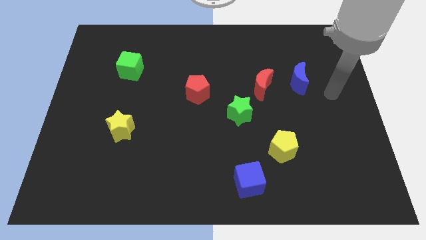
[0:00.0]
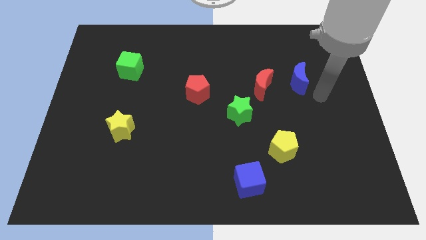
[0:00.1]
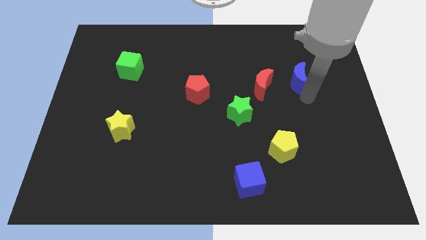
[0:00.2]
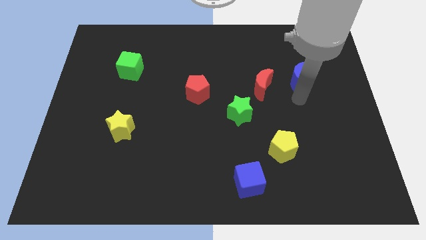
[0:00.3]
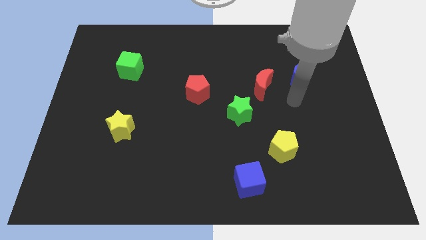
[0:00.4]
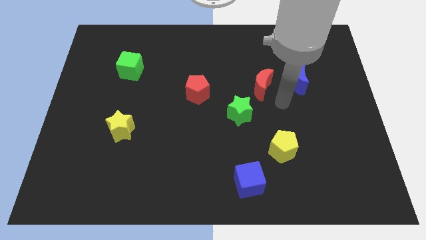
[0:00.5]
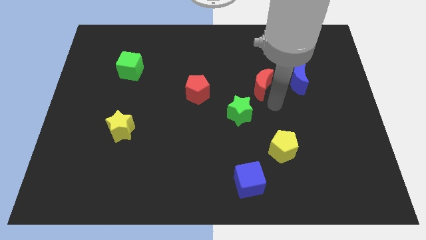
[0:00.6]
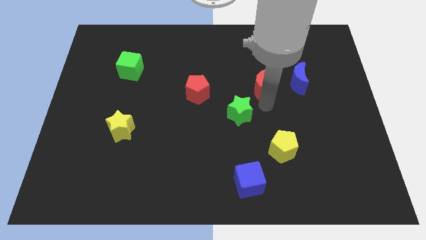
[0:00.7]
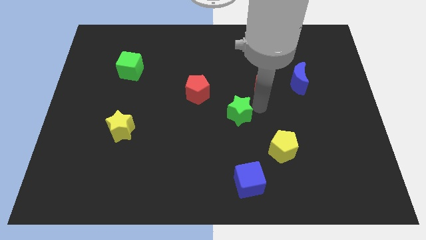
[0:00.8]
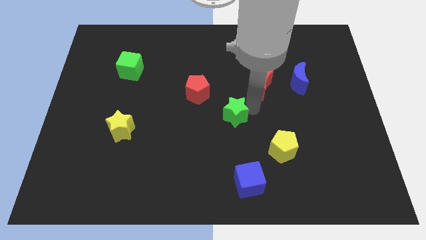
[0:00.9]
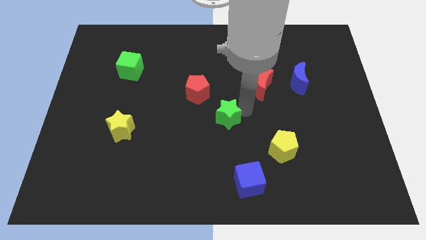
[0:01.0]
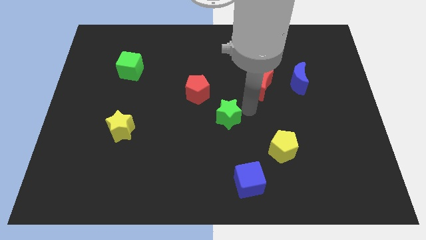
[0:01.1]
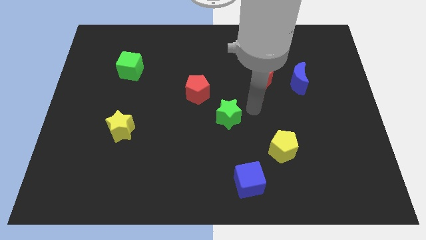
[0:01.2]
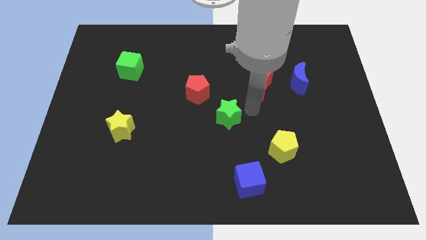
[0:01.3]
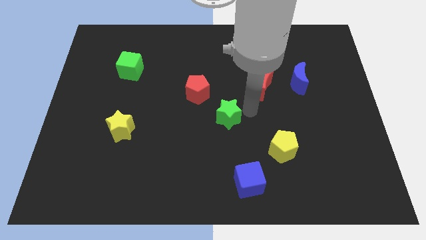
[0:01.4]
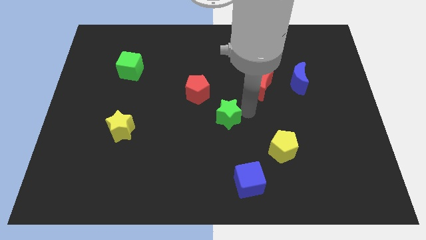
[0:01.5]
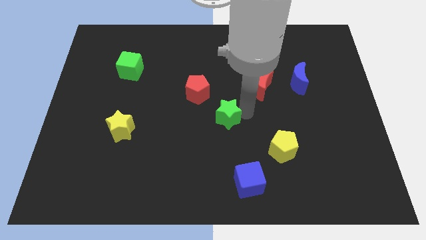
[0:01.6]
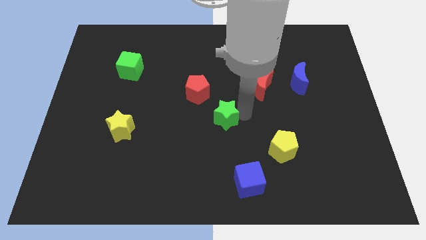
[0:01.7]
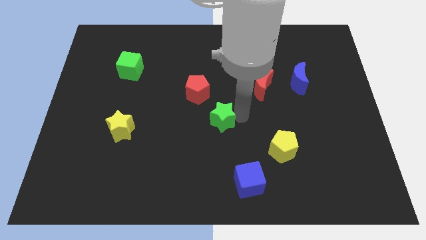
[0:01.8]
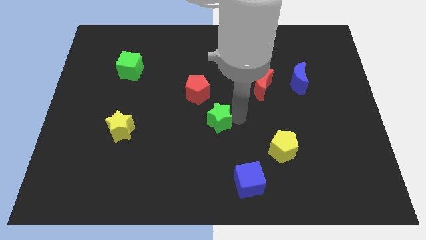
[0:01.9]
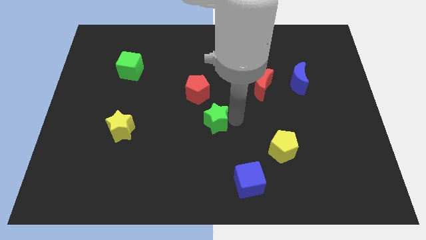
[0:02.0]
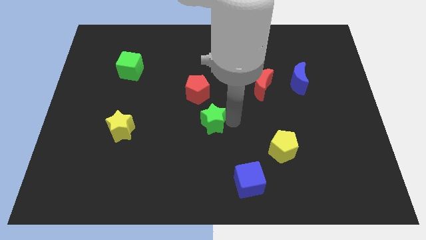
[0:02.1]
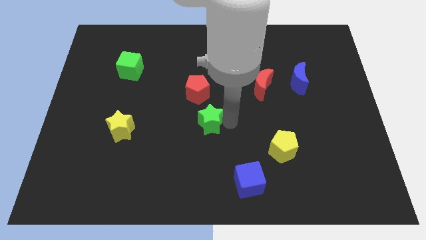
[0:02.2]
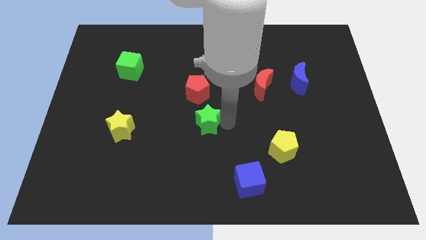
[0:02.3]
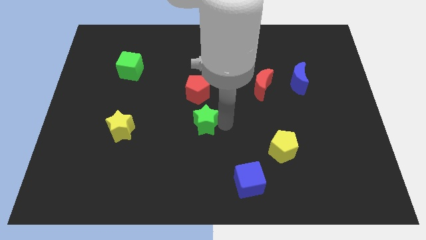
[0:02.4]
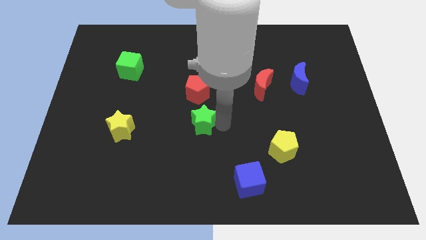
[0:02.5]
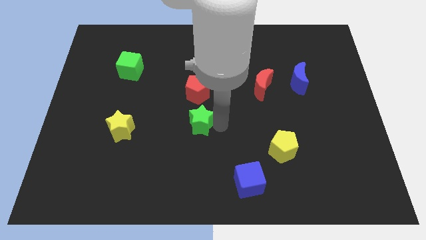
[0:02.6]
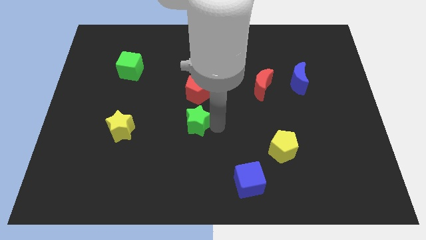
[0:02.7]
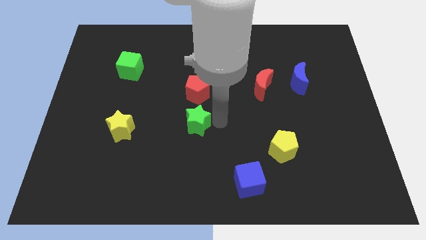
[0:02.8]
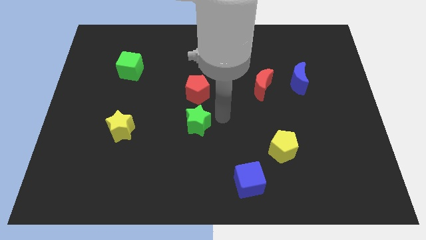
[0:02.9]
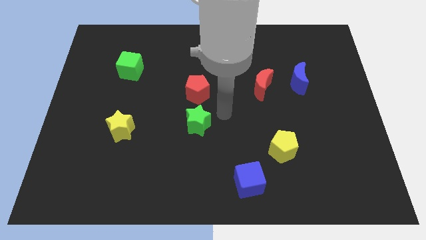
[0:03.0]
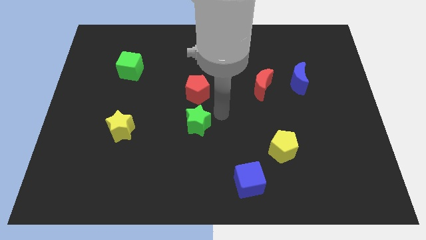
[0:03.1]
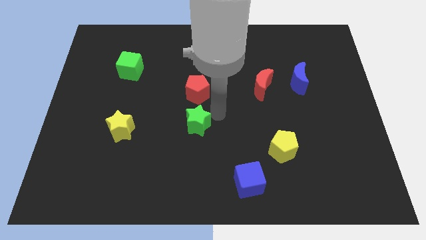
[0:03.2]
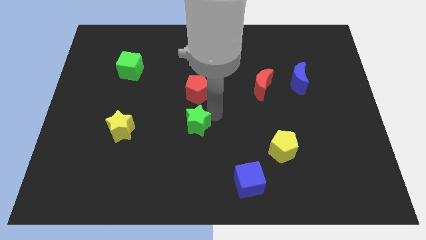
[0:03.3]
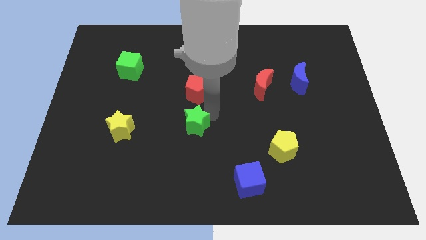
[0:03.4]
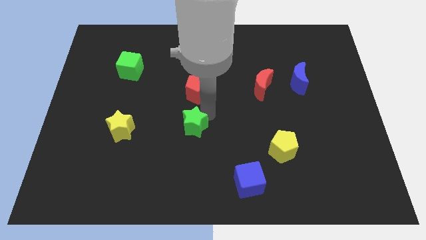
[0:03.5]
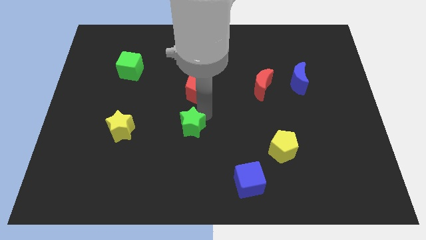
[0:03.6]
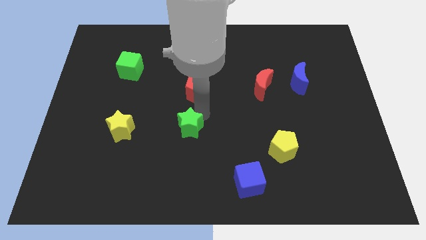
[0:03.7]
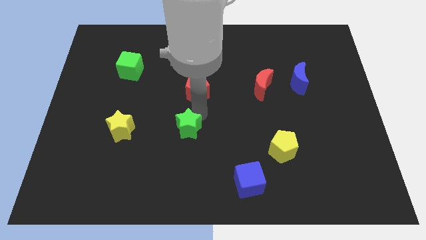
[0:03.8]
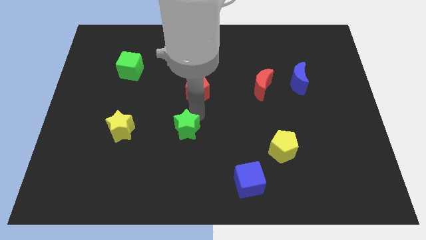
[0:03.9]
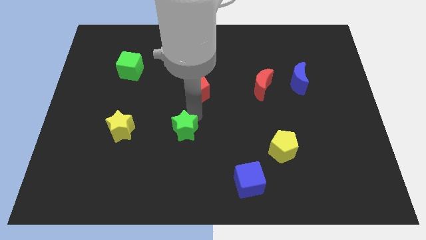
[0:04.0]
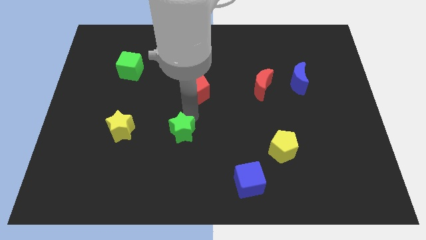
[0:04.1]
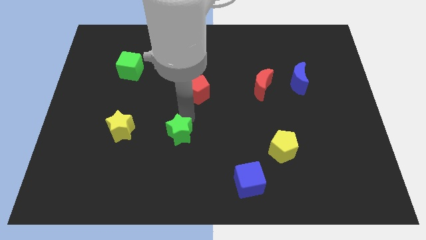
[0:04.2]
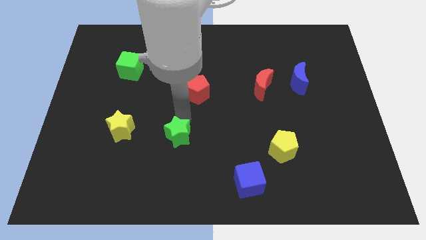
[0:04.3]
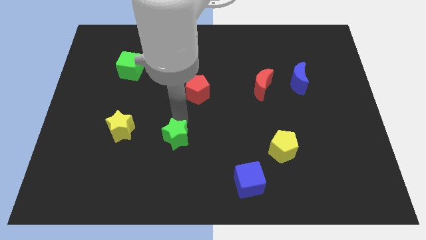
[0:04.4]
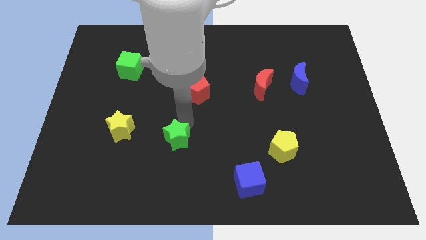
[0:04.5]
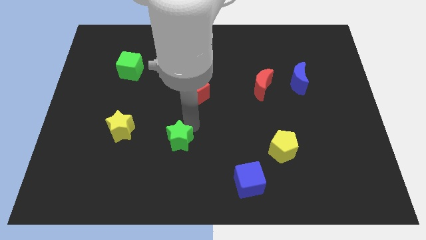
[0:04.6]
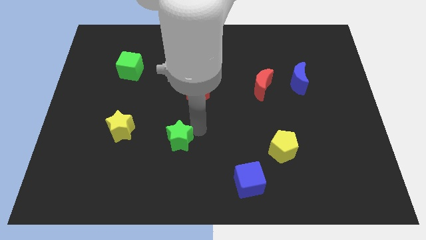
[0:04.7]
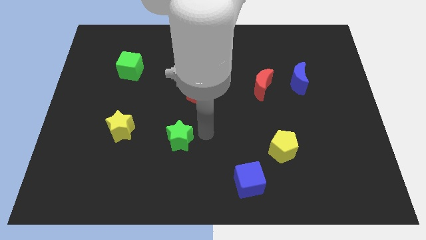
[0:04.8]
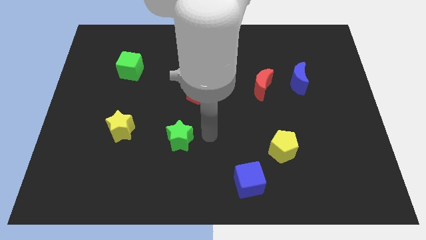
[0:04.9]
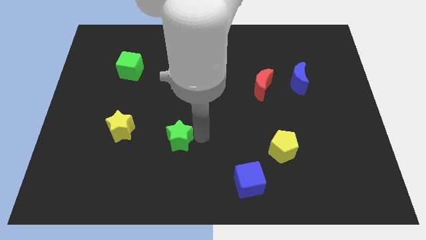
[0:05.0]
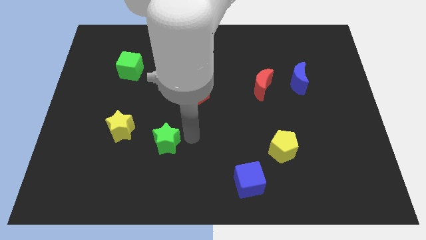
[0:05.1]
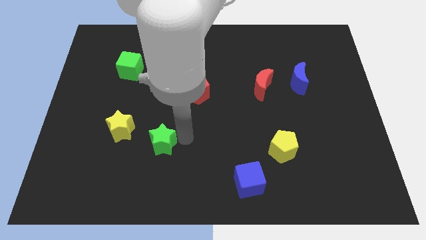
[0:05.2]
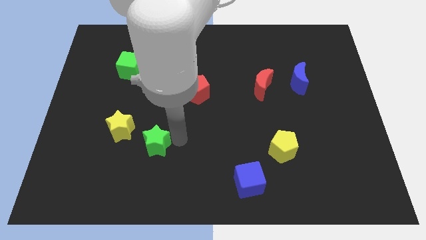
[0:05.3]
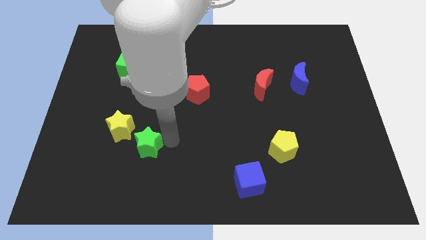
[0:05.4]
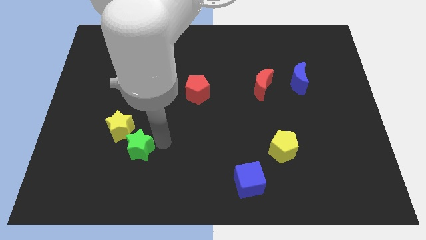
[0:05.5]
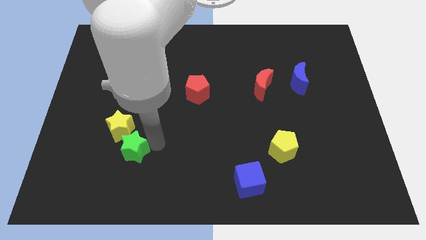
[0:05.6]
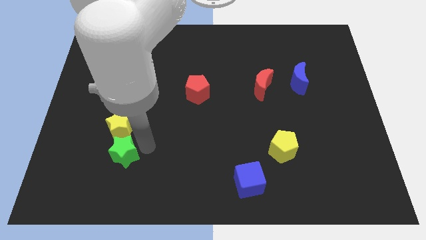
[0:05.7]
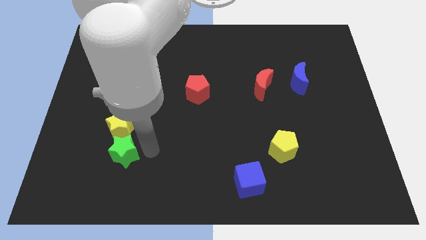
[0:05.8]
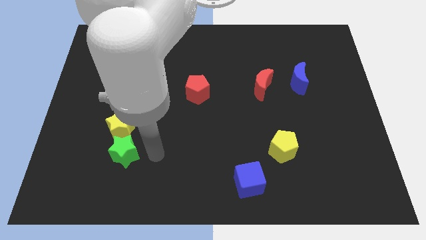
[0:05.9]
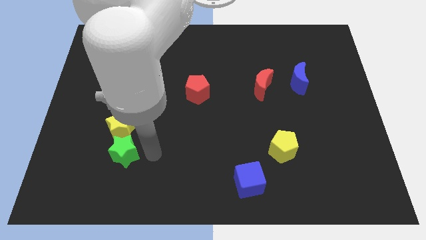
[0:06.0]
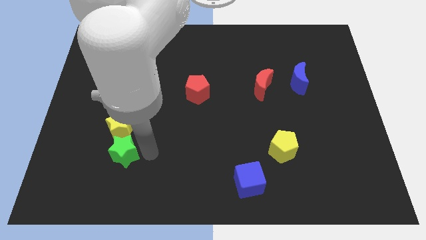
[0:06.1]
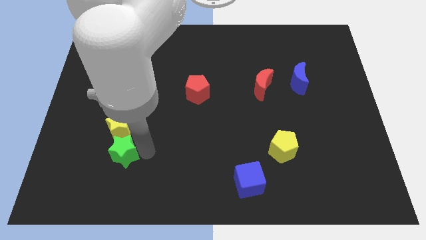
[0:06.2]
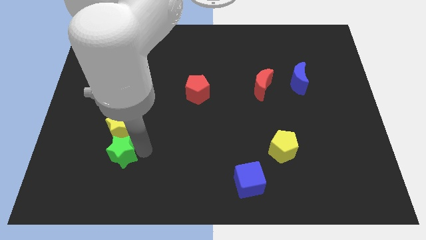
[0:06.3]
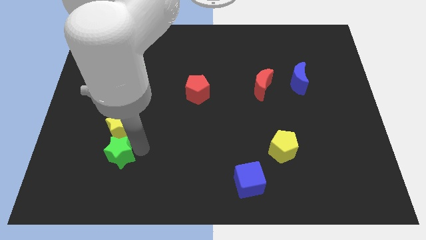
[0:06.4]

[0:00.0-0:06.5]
push the green star diagonally down and to the left of the yellow star

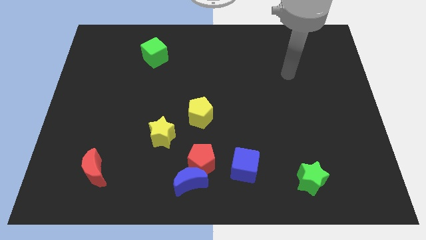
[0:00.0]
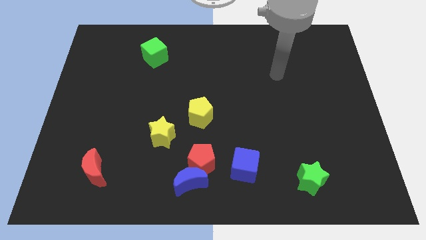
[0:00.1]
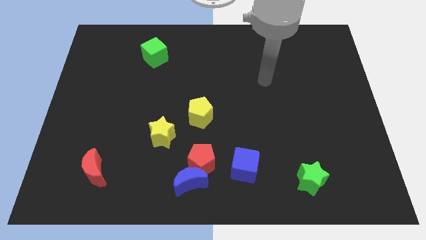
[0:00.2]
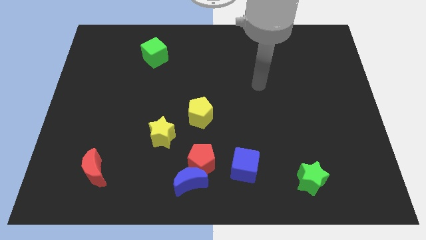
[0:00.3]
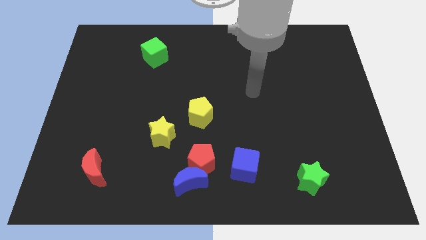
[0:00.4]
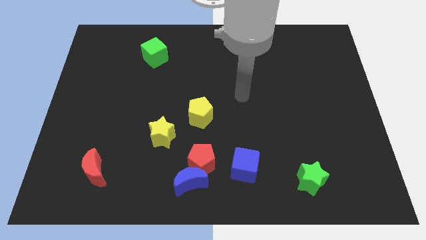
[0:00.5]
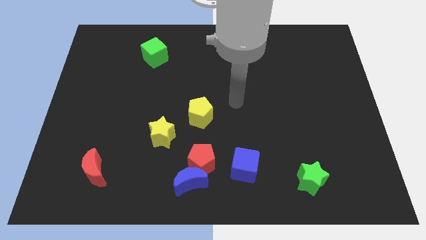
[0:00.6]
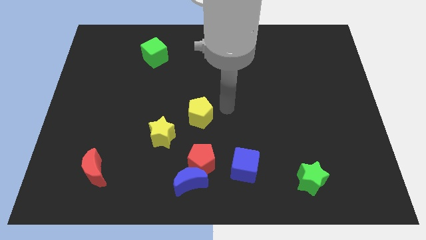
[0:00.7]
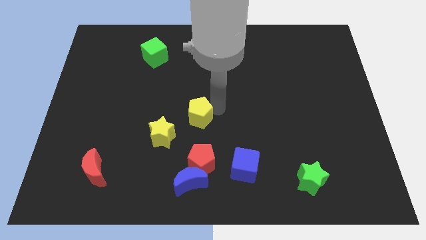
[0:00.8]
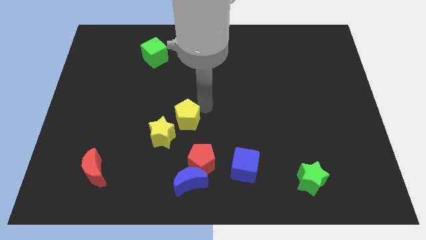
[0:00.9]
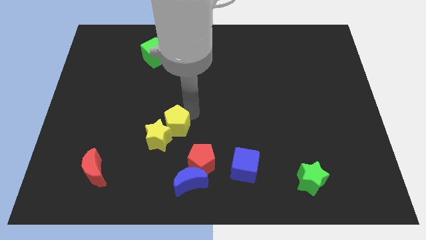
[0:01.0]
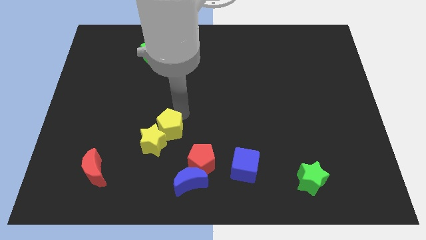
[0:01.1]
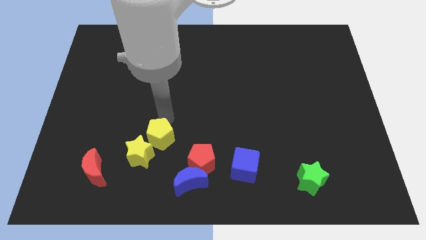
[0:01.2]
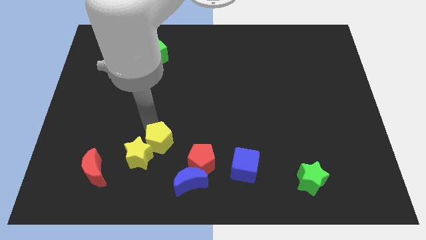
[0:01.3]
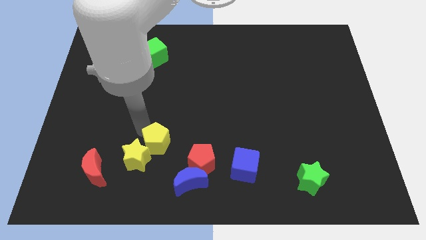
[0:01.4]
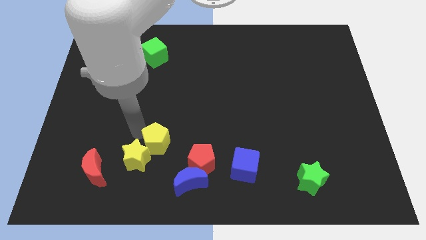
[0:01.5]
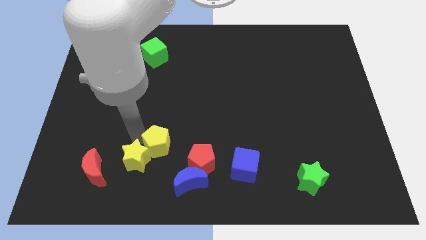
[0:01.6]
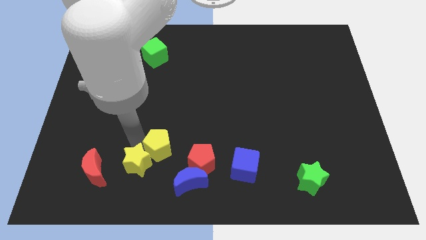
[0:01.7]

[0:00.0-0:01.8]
put the yellow star to the left side of the blue moon
